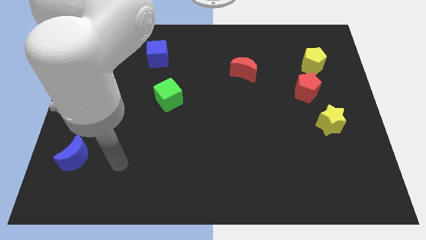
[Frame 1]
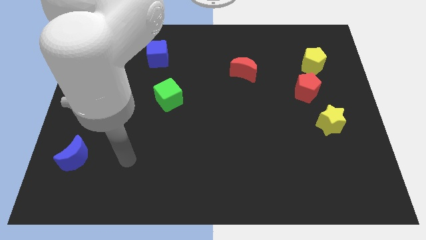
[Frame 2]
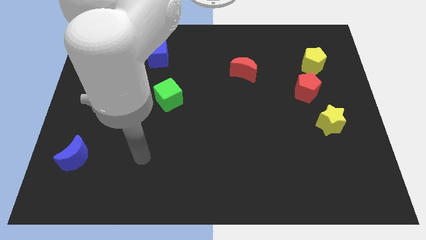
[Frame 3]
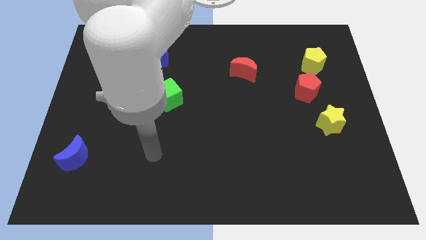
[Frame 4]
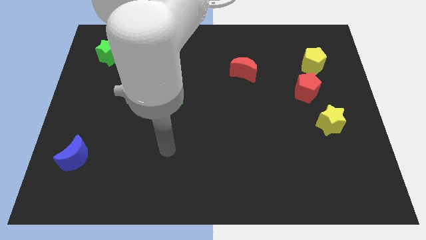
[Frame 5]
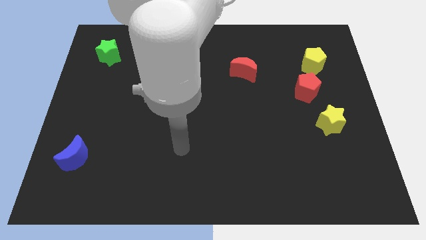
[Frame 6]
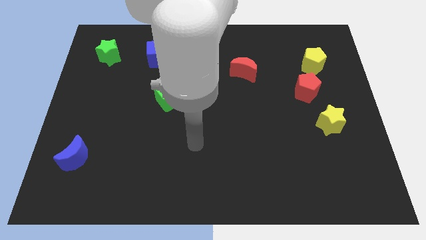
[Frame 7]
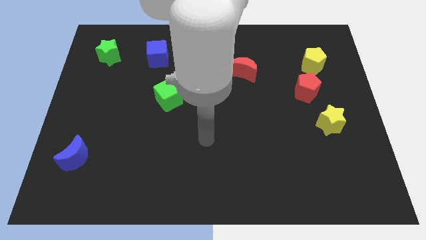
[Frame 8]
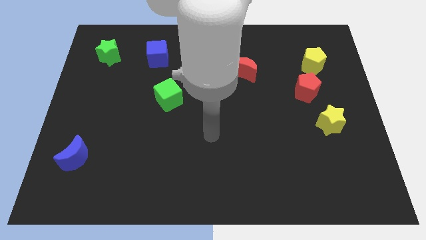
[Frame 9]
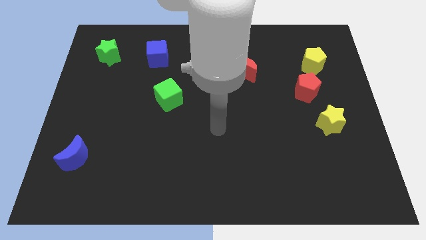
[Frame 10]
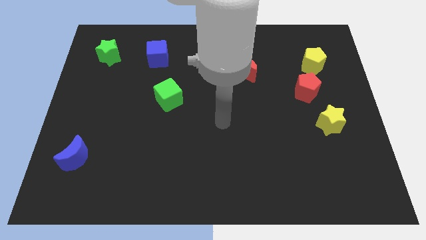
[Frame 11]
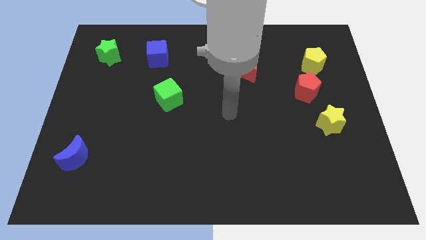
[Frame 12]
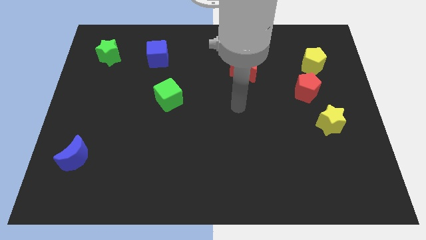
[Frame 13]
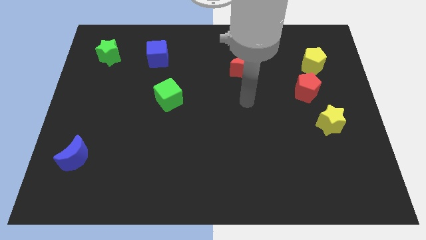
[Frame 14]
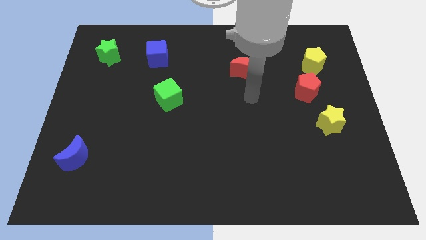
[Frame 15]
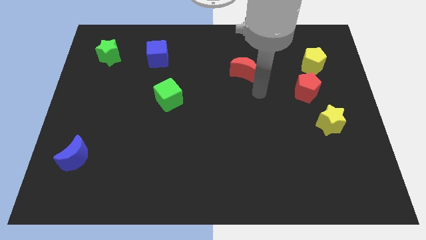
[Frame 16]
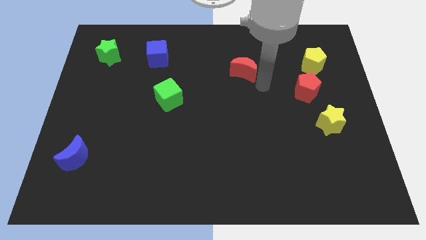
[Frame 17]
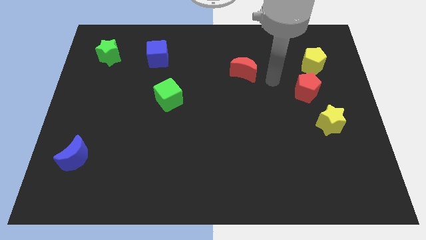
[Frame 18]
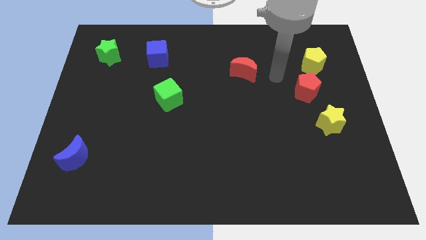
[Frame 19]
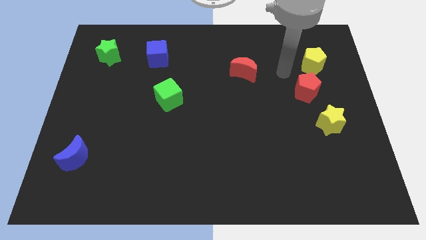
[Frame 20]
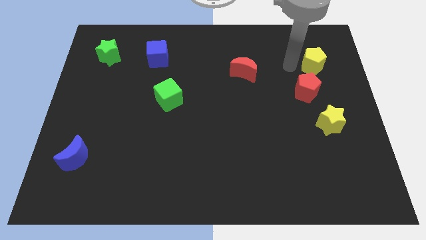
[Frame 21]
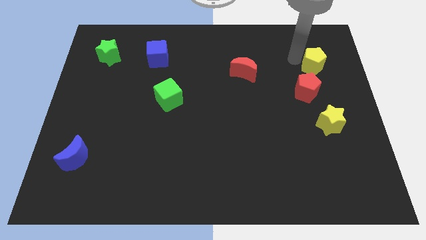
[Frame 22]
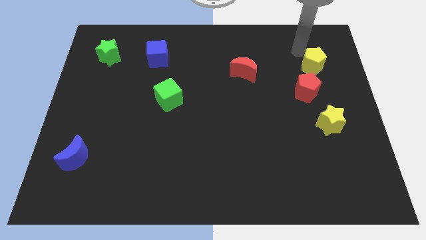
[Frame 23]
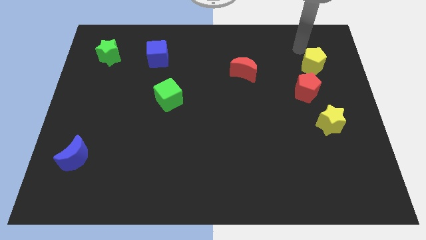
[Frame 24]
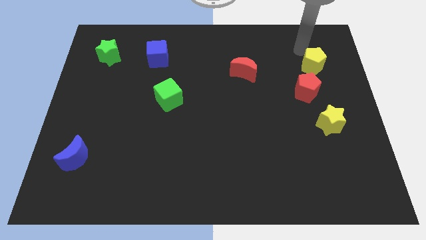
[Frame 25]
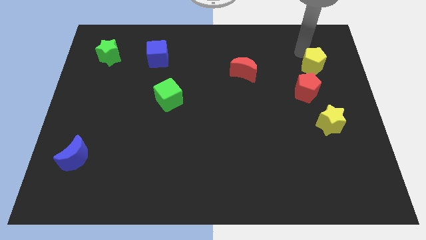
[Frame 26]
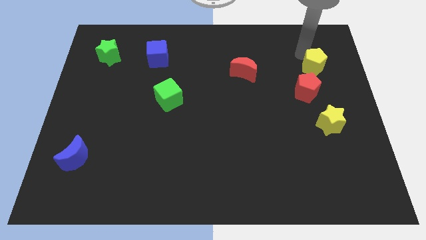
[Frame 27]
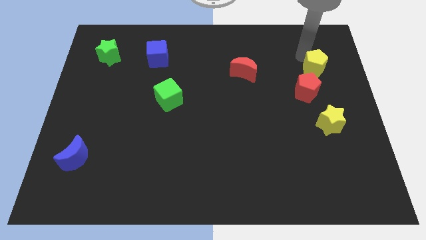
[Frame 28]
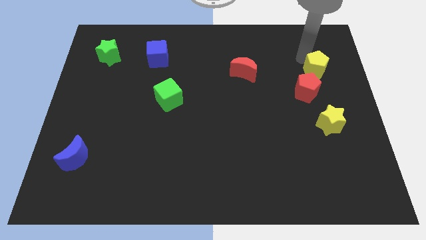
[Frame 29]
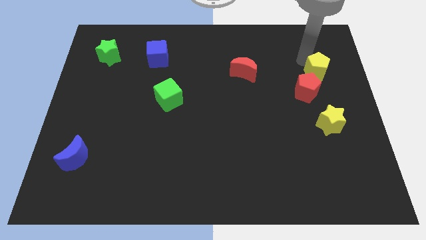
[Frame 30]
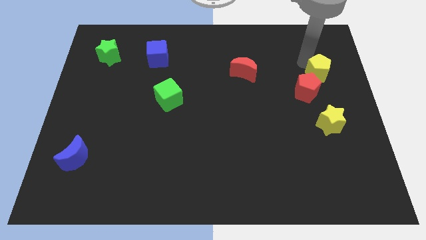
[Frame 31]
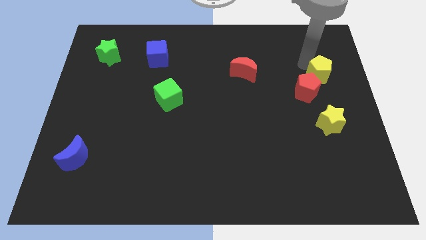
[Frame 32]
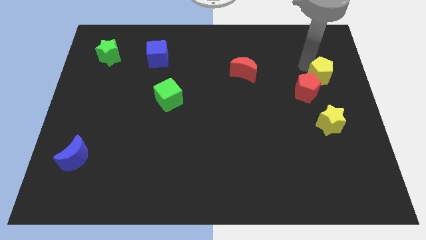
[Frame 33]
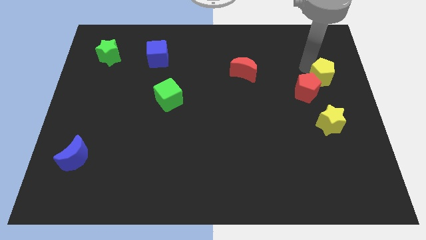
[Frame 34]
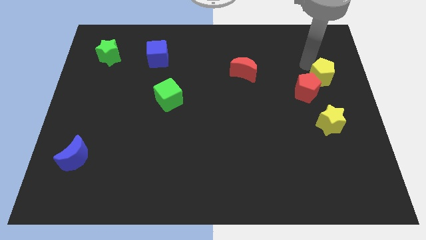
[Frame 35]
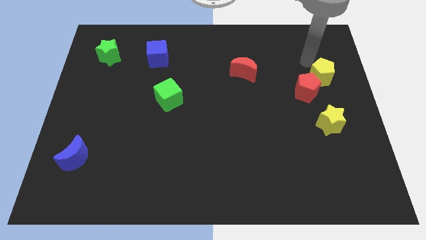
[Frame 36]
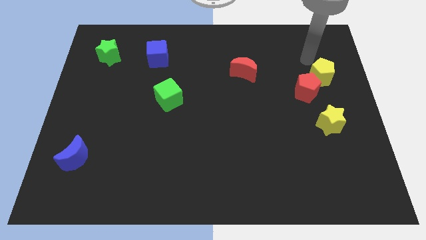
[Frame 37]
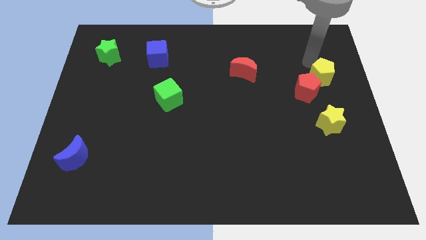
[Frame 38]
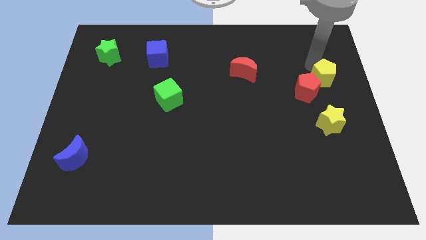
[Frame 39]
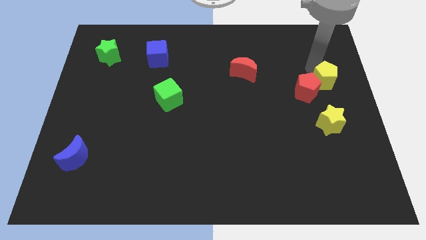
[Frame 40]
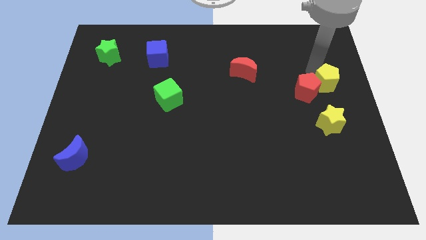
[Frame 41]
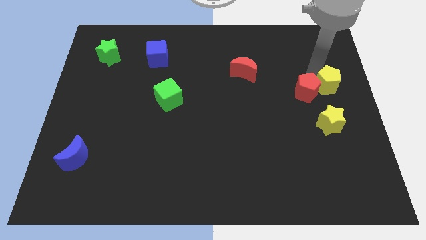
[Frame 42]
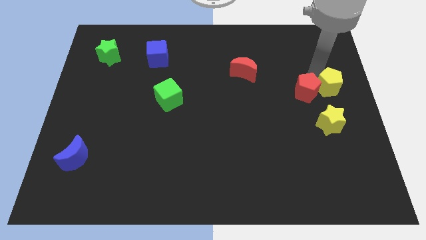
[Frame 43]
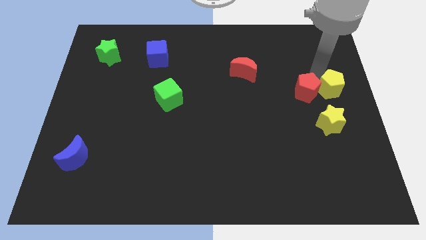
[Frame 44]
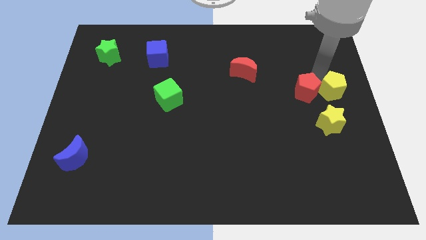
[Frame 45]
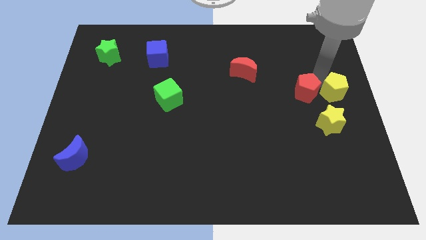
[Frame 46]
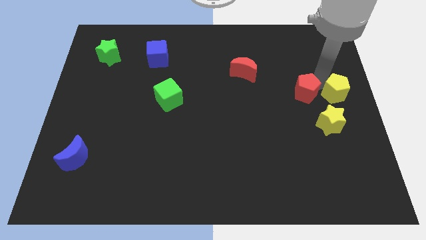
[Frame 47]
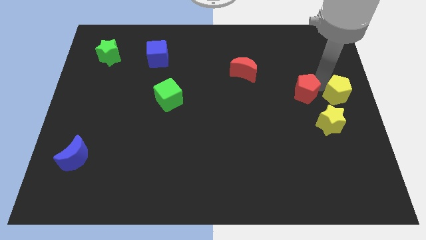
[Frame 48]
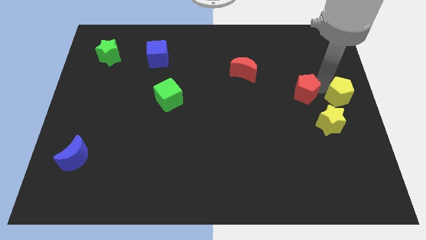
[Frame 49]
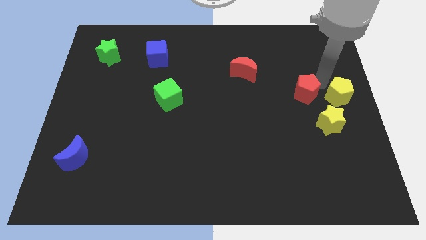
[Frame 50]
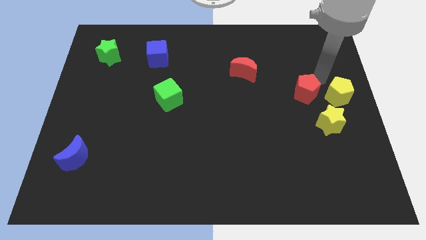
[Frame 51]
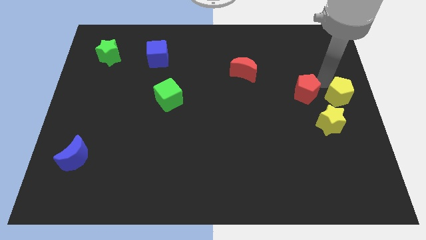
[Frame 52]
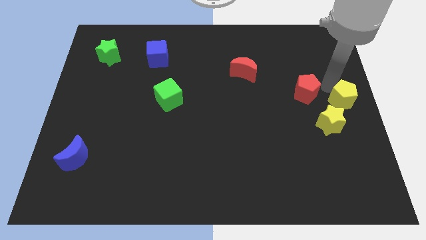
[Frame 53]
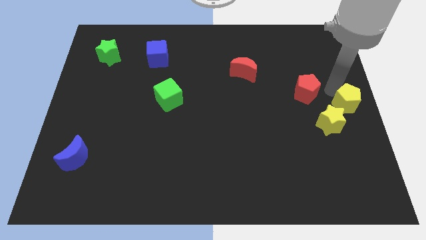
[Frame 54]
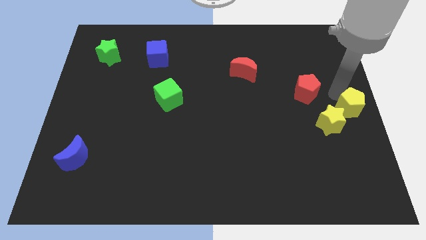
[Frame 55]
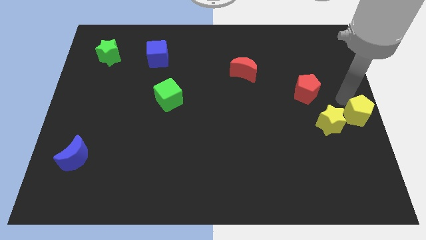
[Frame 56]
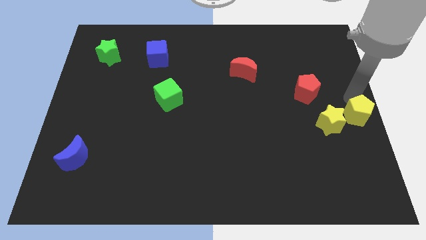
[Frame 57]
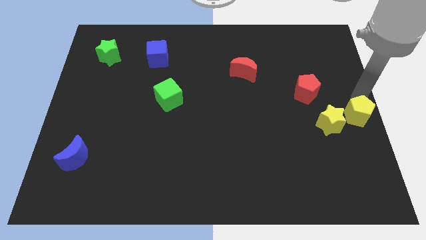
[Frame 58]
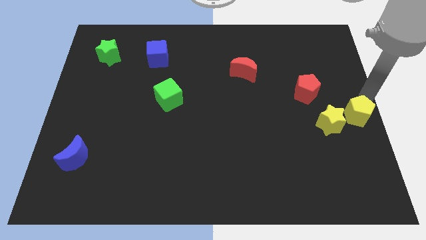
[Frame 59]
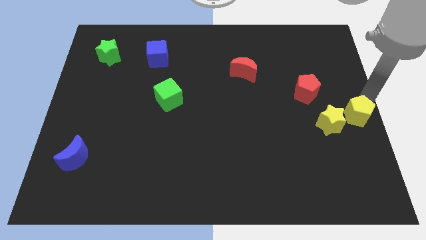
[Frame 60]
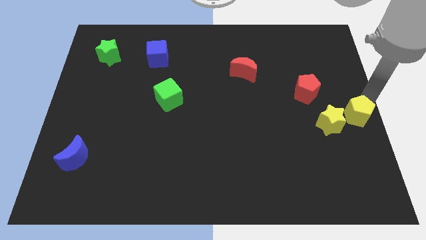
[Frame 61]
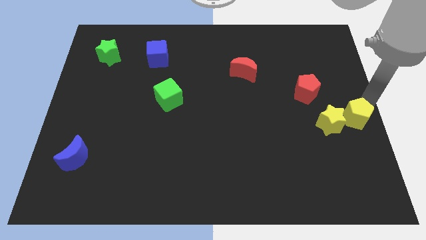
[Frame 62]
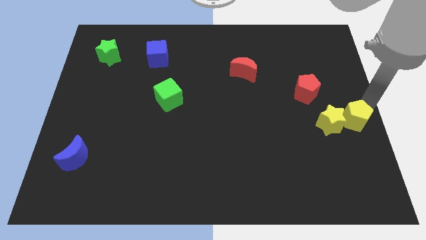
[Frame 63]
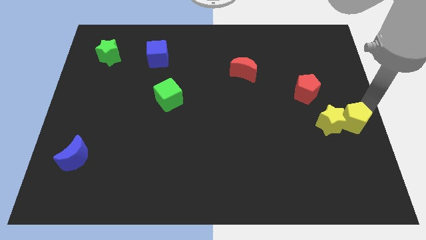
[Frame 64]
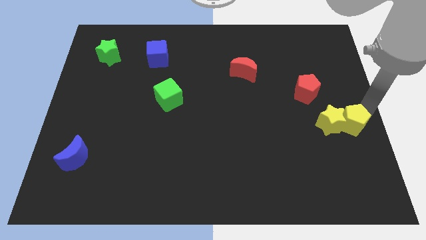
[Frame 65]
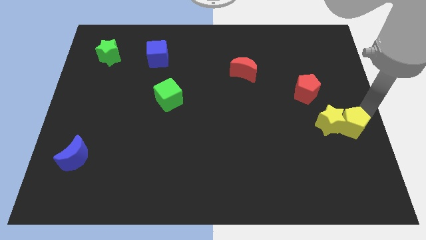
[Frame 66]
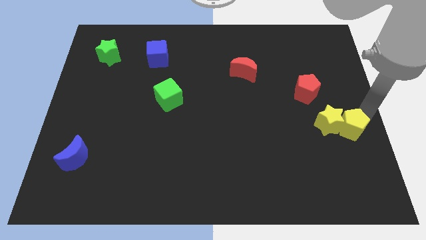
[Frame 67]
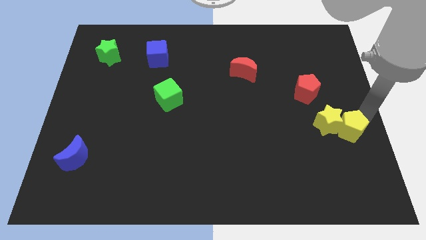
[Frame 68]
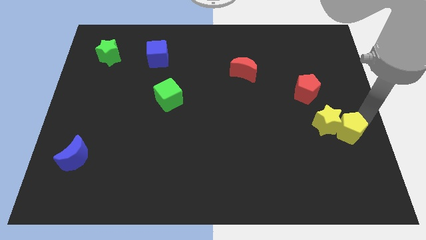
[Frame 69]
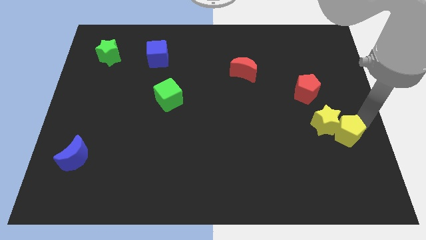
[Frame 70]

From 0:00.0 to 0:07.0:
put the yellow pentagon to the bottom side of the yellow star
